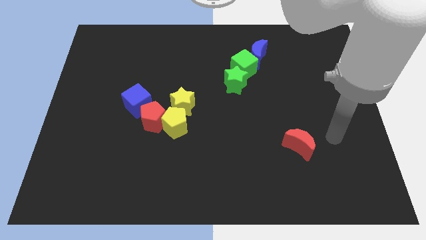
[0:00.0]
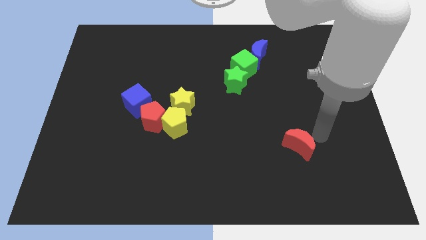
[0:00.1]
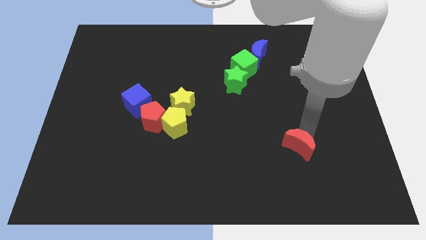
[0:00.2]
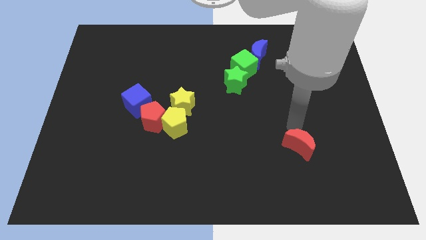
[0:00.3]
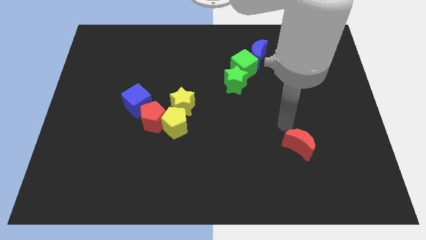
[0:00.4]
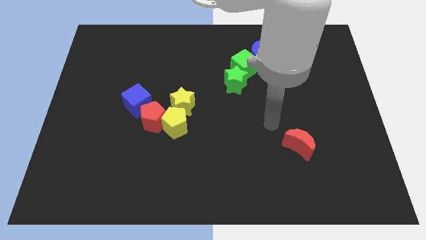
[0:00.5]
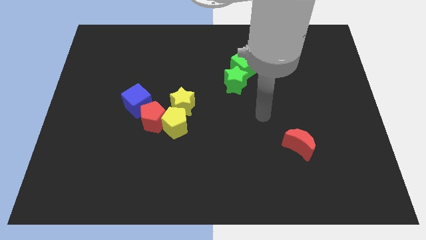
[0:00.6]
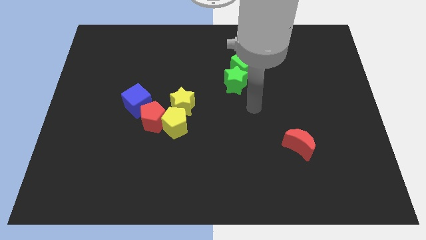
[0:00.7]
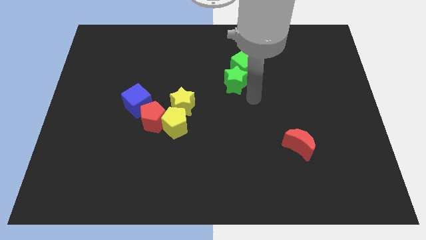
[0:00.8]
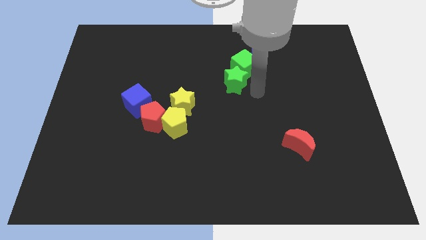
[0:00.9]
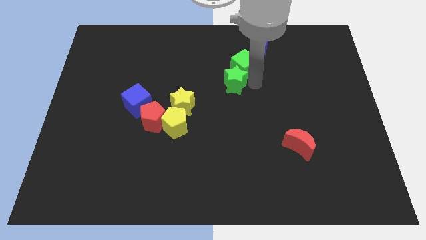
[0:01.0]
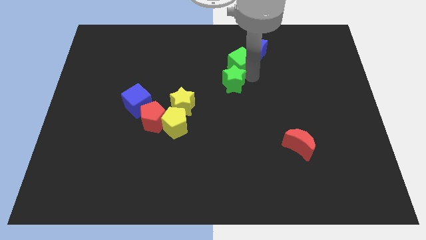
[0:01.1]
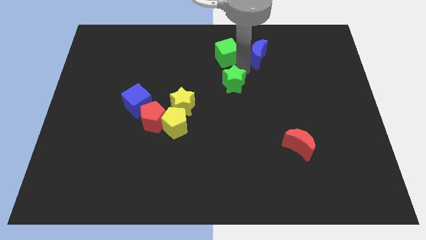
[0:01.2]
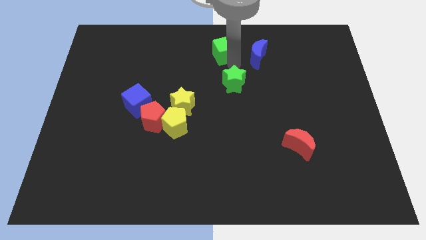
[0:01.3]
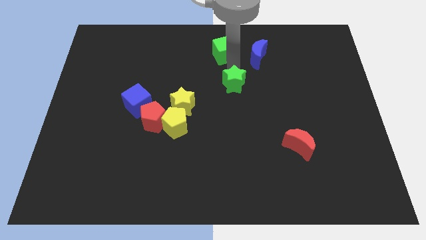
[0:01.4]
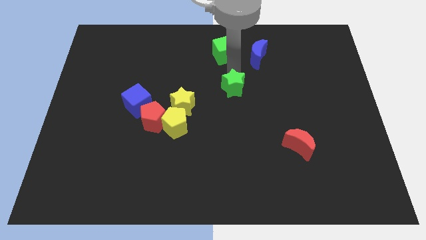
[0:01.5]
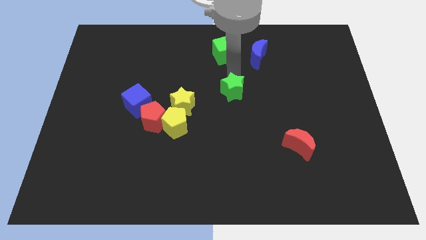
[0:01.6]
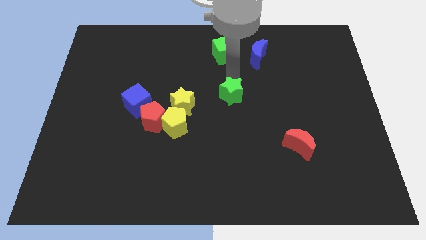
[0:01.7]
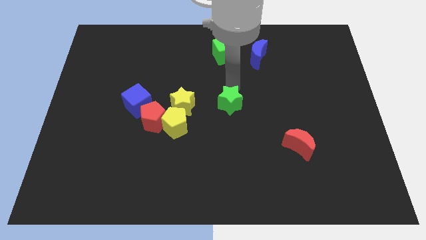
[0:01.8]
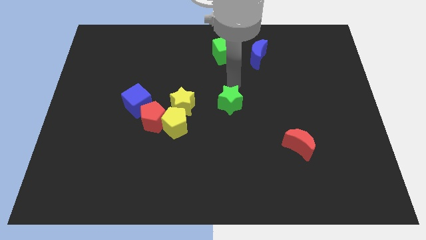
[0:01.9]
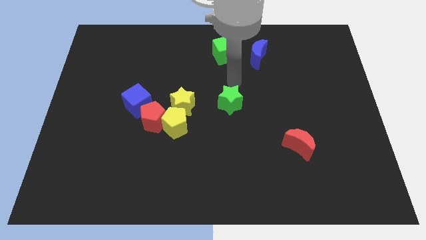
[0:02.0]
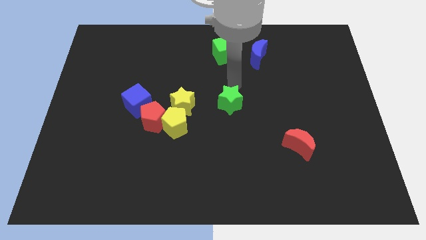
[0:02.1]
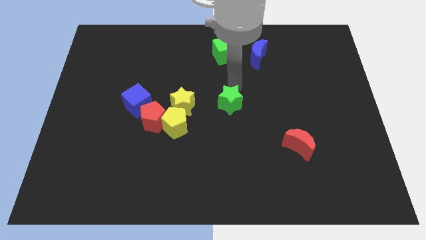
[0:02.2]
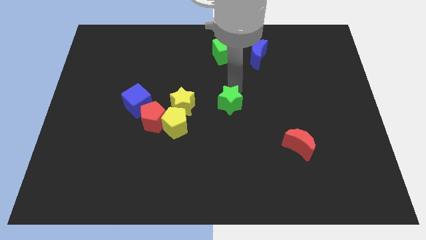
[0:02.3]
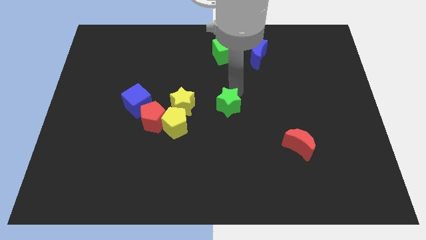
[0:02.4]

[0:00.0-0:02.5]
slightly move the green star downwards

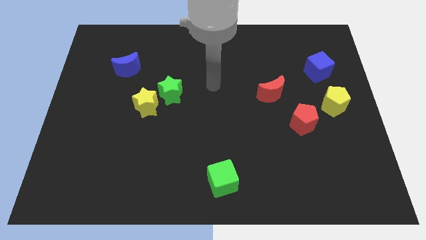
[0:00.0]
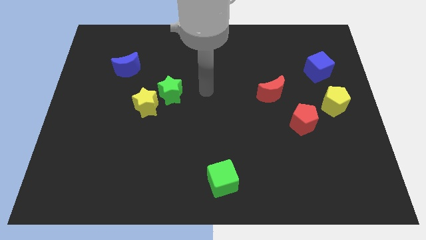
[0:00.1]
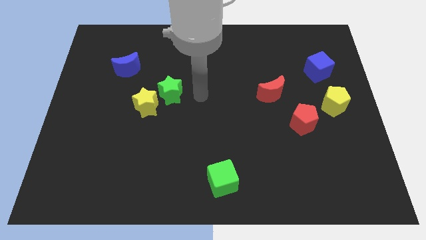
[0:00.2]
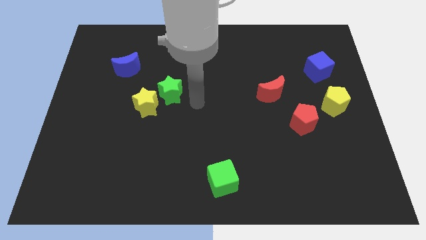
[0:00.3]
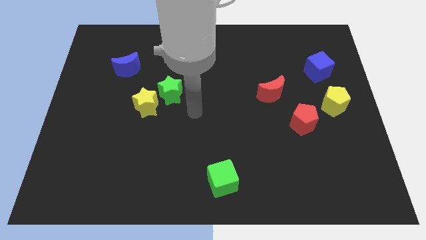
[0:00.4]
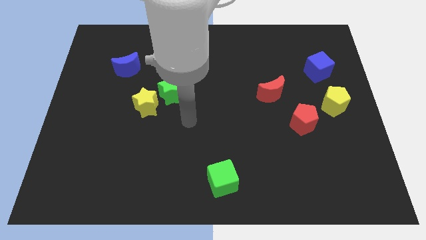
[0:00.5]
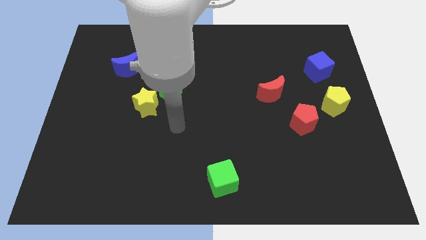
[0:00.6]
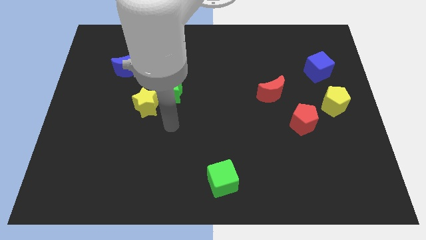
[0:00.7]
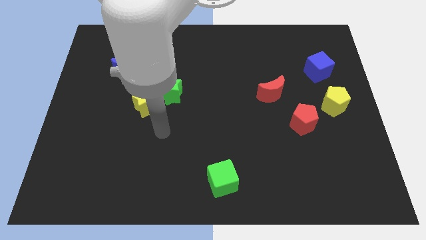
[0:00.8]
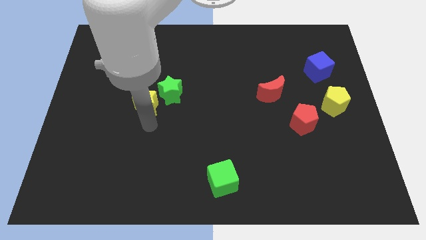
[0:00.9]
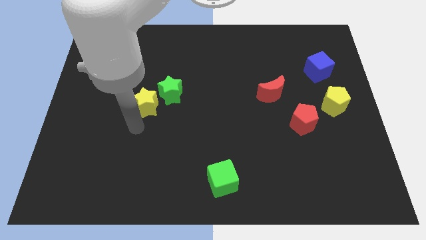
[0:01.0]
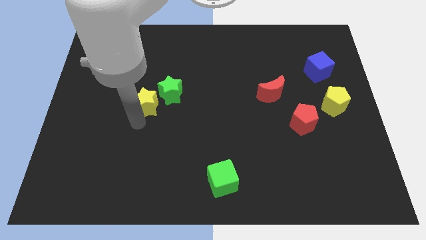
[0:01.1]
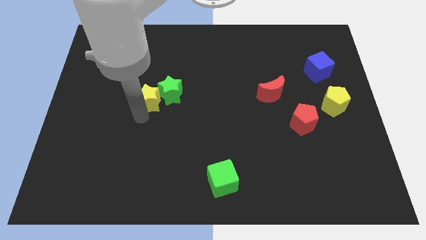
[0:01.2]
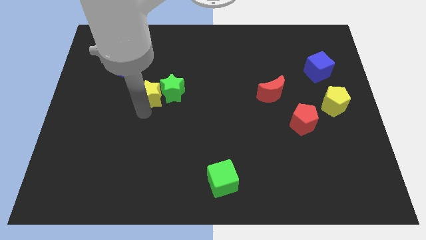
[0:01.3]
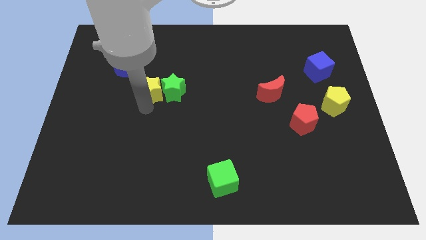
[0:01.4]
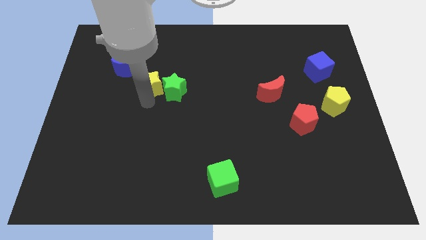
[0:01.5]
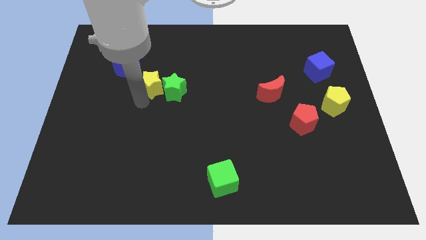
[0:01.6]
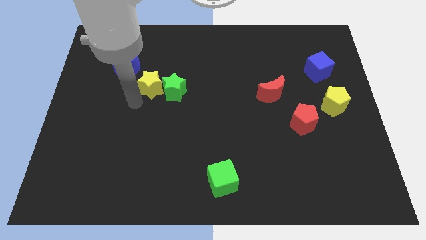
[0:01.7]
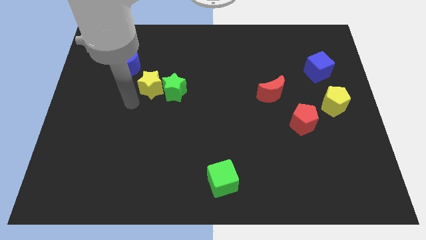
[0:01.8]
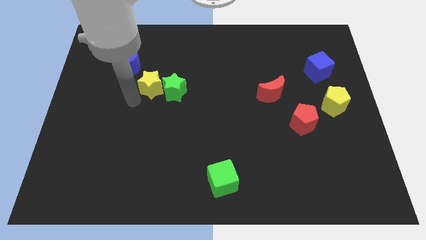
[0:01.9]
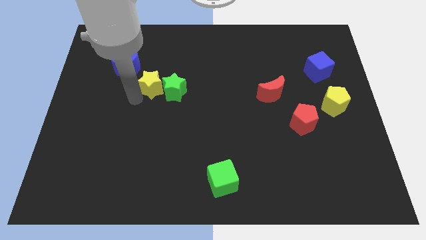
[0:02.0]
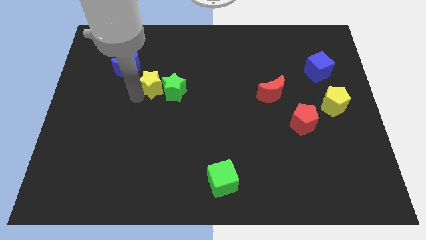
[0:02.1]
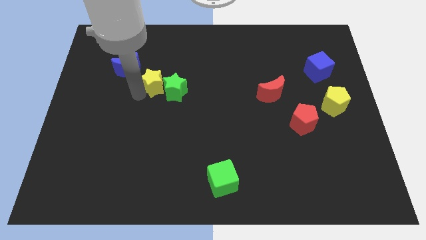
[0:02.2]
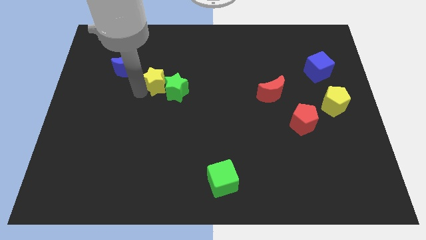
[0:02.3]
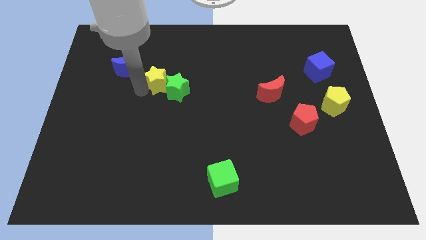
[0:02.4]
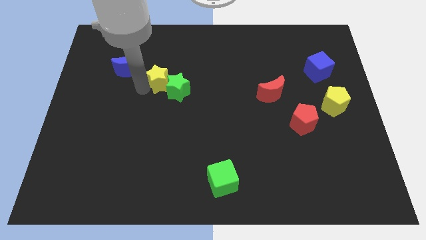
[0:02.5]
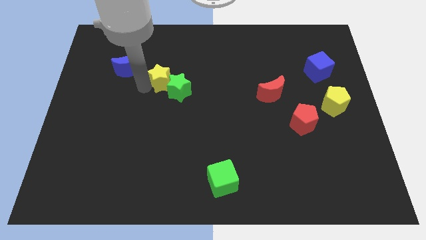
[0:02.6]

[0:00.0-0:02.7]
push the yellow star up and right diagonally somewhat

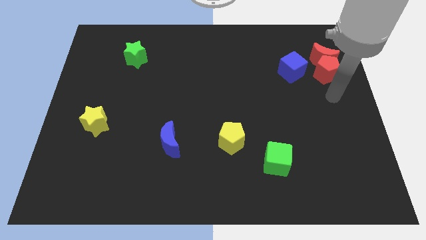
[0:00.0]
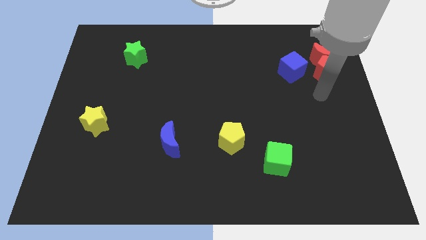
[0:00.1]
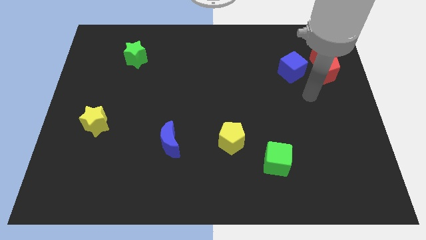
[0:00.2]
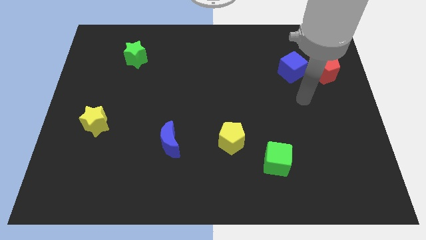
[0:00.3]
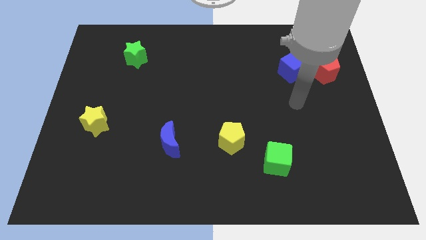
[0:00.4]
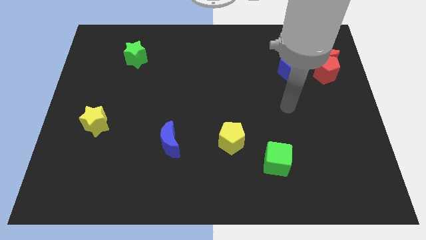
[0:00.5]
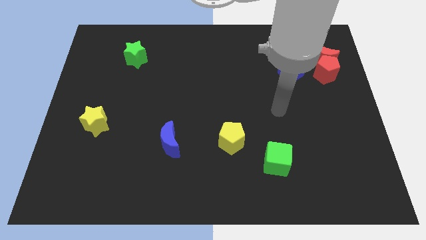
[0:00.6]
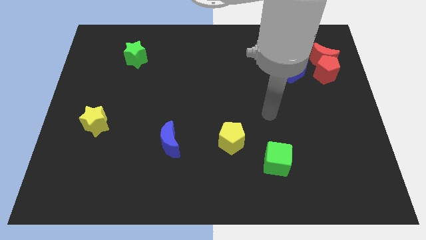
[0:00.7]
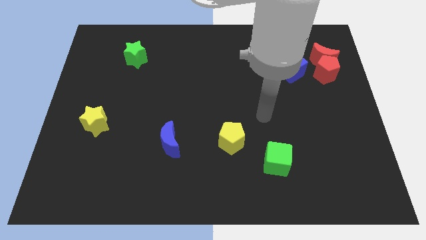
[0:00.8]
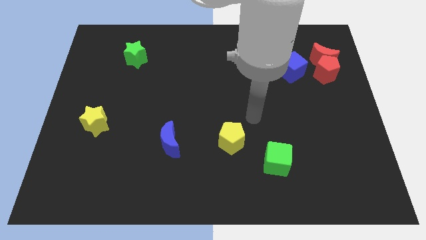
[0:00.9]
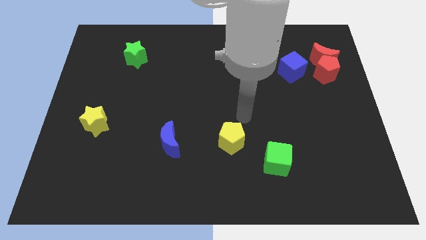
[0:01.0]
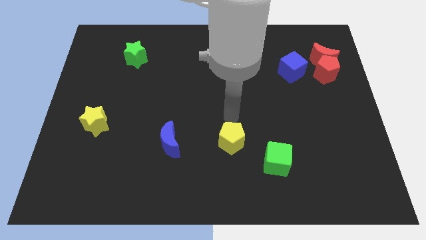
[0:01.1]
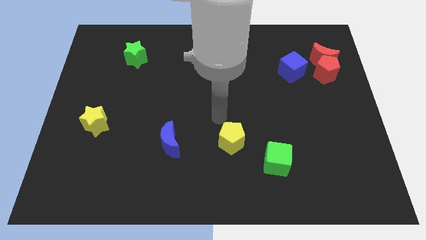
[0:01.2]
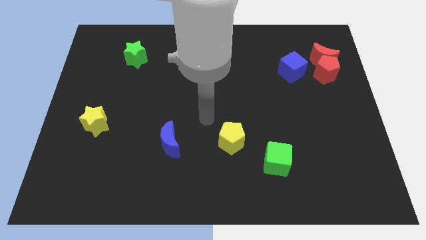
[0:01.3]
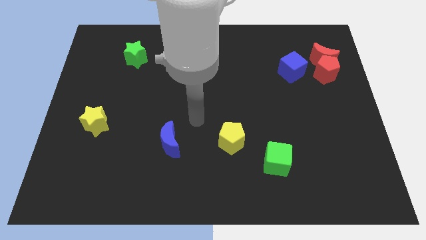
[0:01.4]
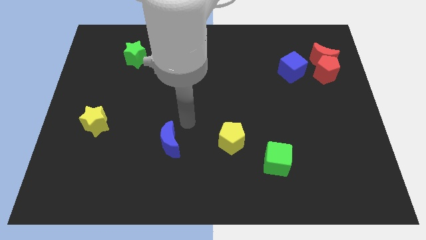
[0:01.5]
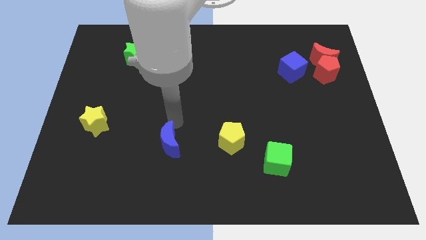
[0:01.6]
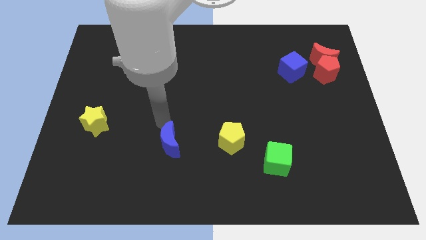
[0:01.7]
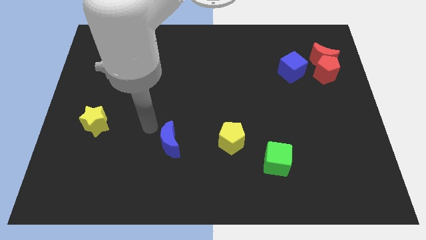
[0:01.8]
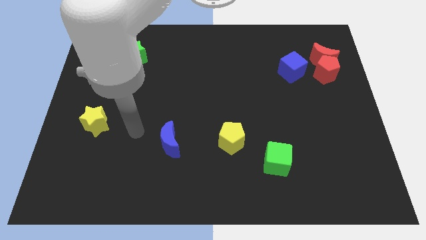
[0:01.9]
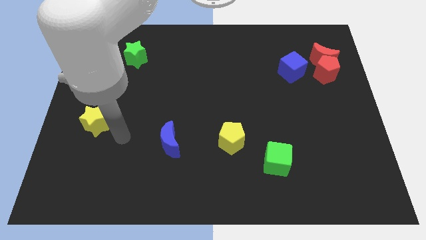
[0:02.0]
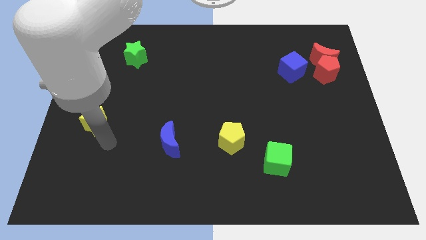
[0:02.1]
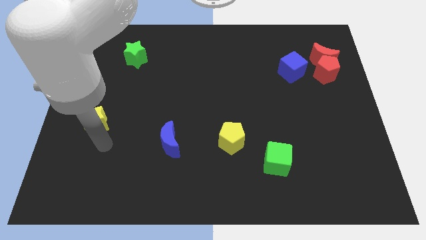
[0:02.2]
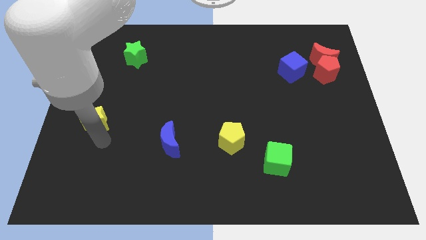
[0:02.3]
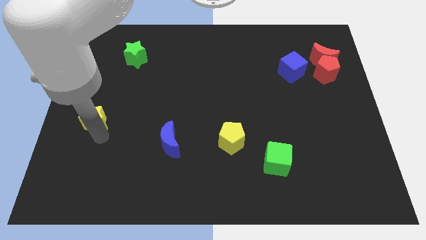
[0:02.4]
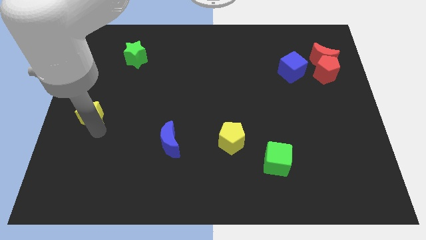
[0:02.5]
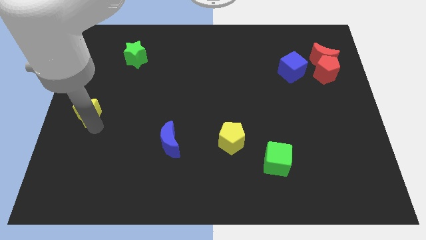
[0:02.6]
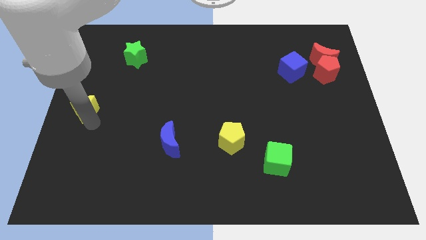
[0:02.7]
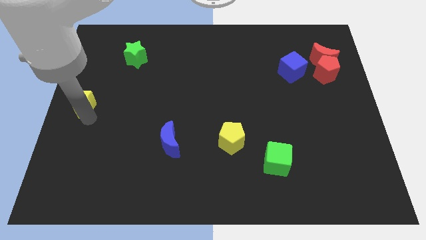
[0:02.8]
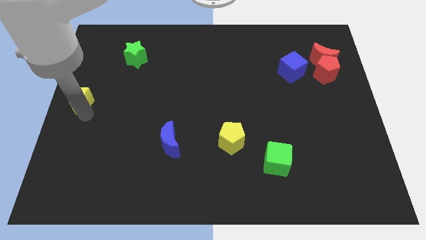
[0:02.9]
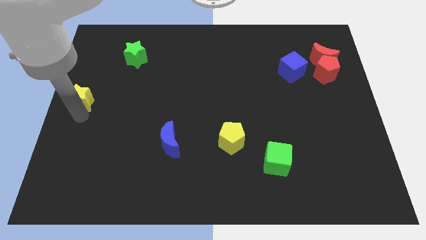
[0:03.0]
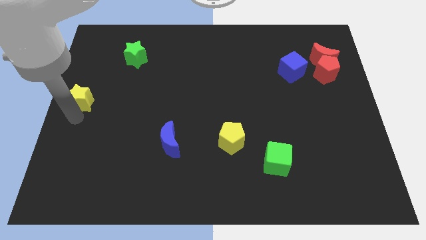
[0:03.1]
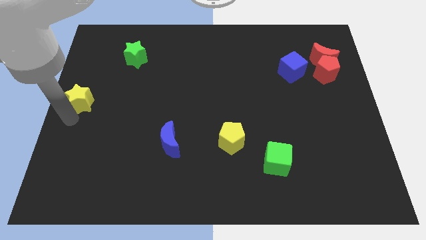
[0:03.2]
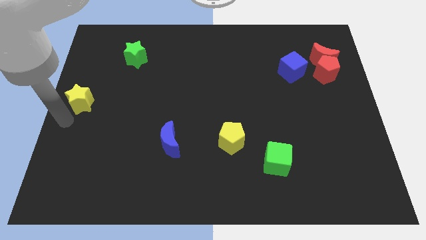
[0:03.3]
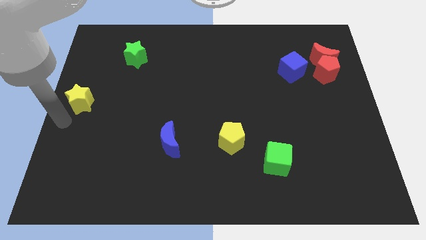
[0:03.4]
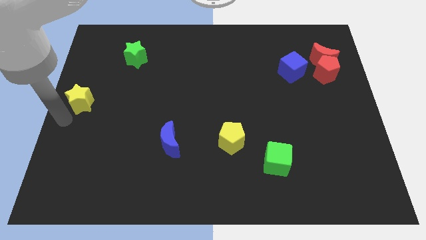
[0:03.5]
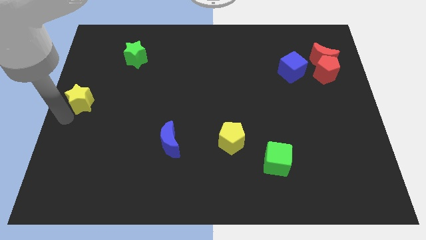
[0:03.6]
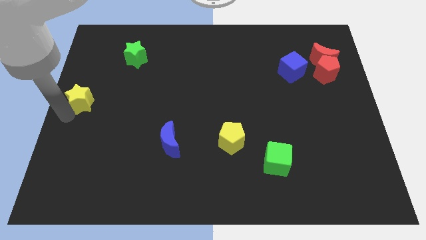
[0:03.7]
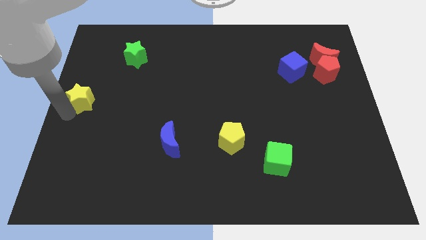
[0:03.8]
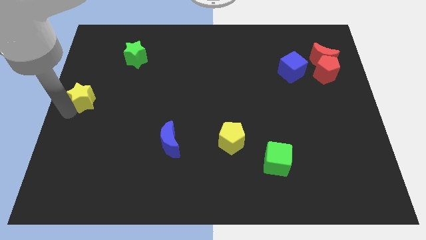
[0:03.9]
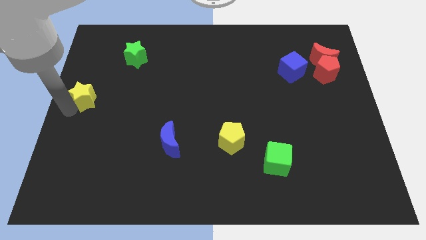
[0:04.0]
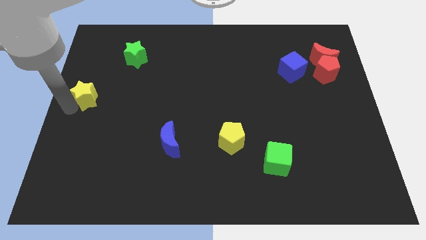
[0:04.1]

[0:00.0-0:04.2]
move the yellow star somewhat upwards
